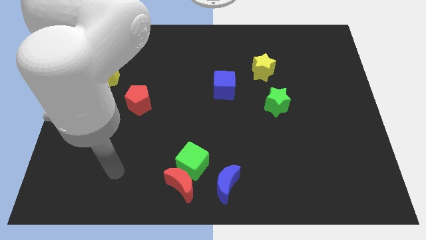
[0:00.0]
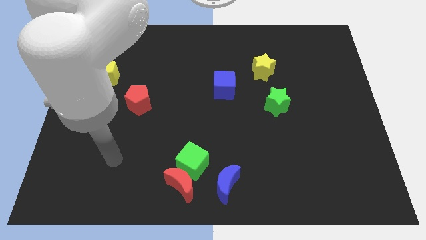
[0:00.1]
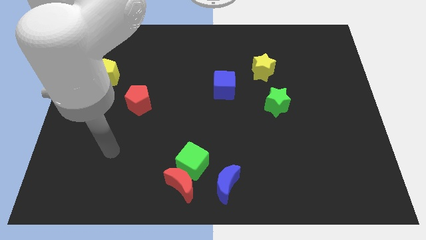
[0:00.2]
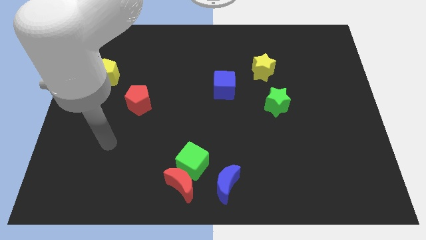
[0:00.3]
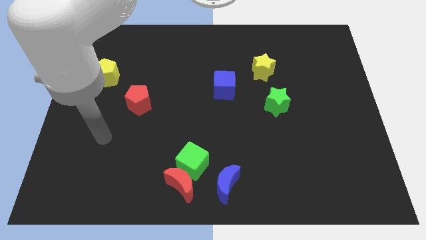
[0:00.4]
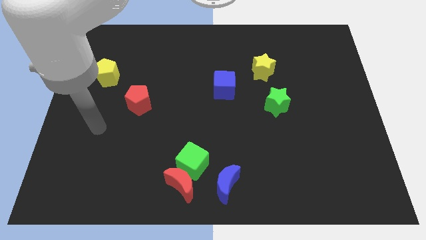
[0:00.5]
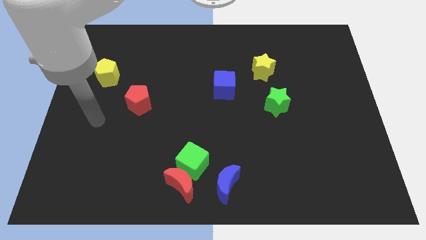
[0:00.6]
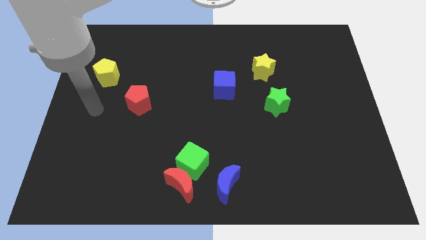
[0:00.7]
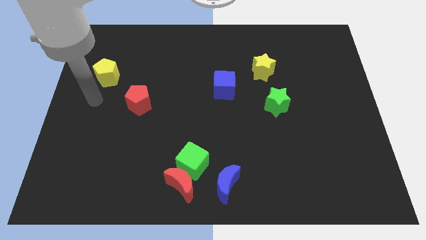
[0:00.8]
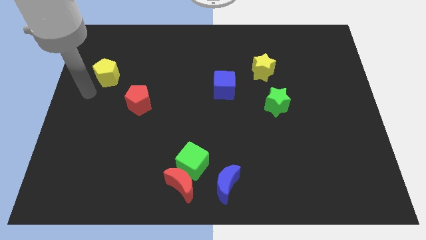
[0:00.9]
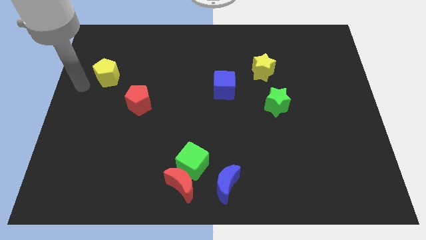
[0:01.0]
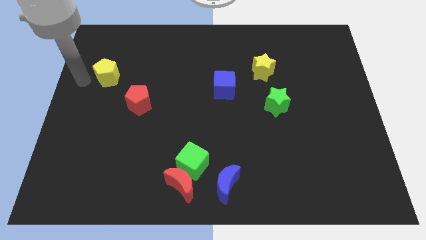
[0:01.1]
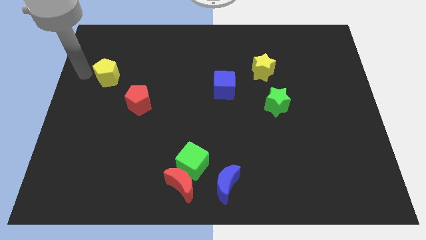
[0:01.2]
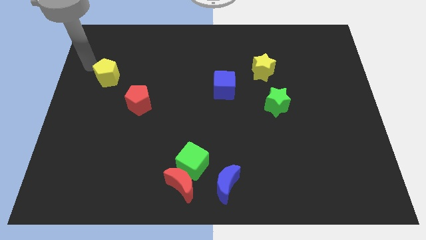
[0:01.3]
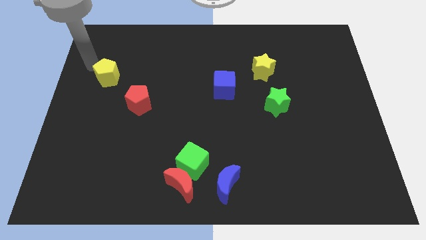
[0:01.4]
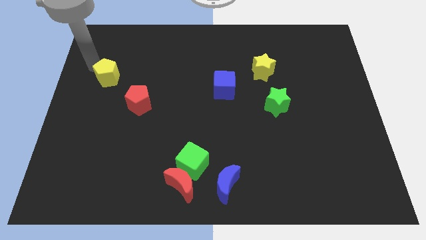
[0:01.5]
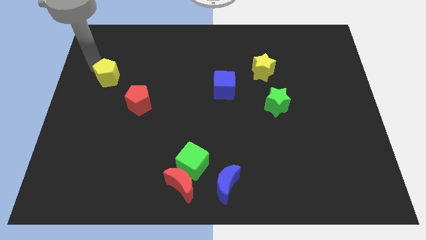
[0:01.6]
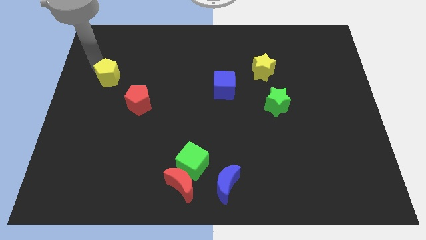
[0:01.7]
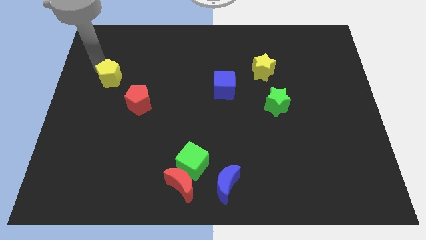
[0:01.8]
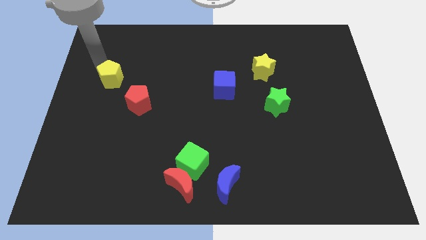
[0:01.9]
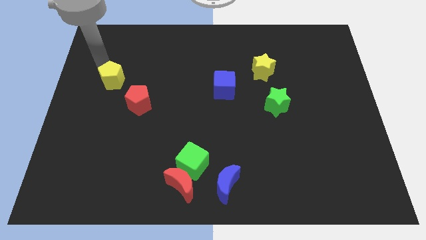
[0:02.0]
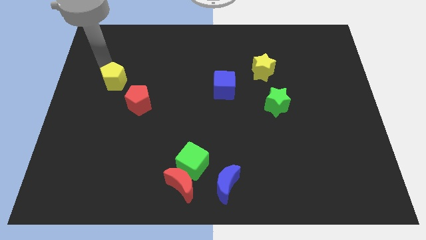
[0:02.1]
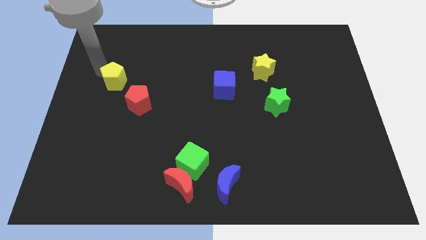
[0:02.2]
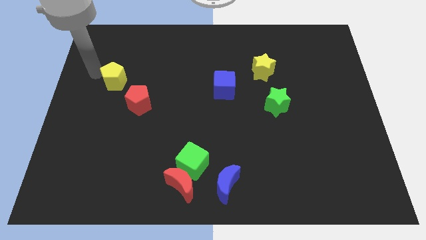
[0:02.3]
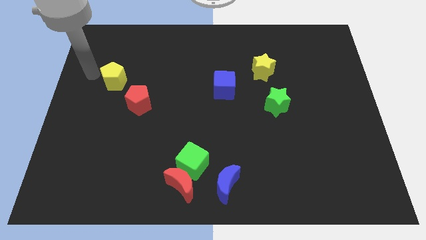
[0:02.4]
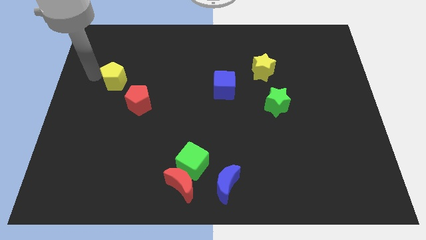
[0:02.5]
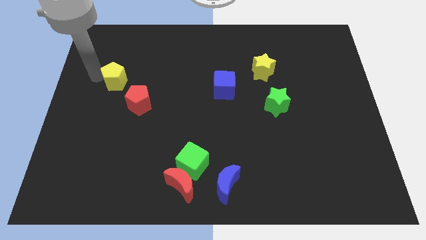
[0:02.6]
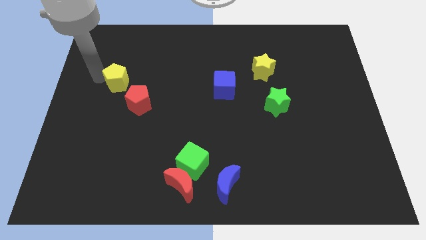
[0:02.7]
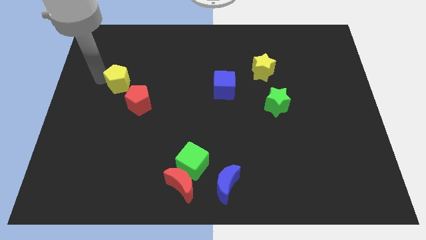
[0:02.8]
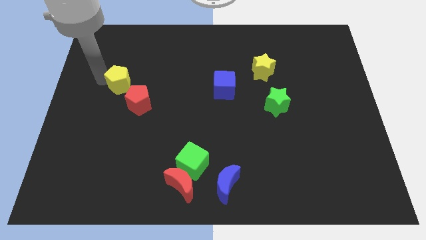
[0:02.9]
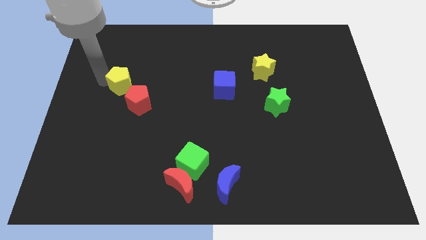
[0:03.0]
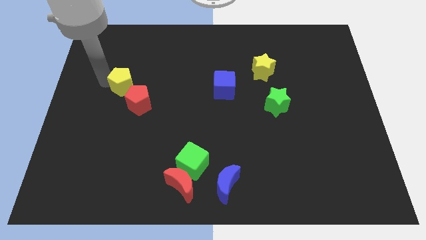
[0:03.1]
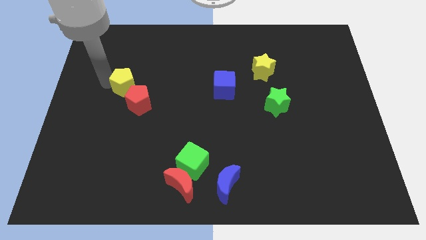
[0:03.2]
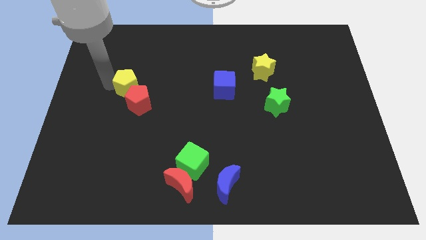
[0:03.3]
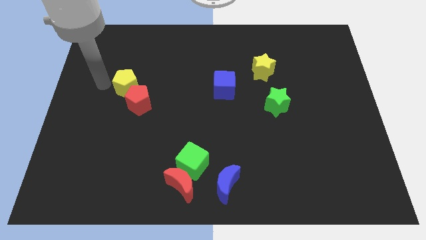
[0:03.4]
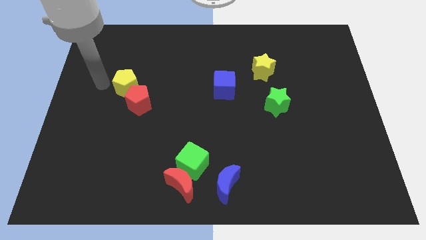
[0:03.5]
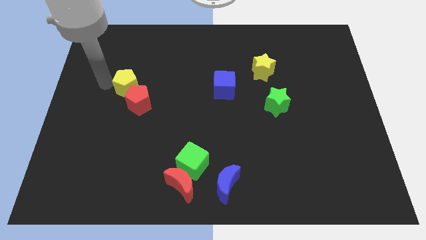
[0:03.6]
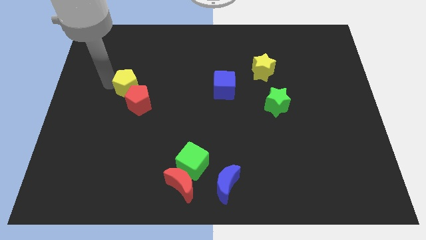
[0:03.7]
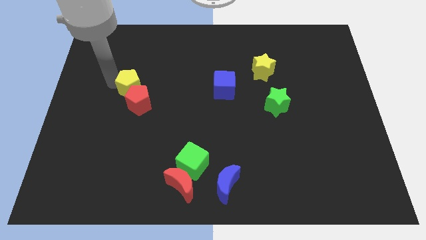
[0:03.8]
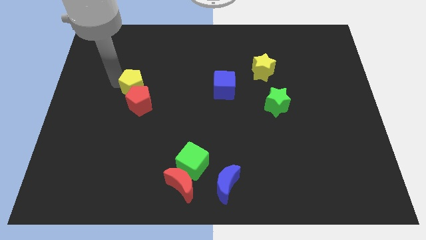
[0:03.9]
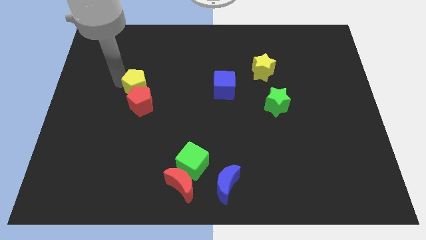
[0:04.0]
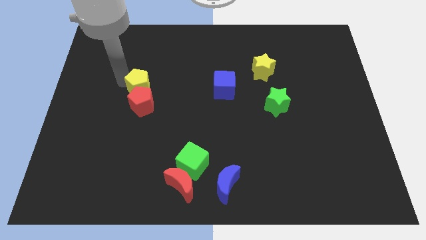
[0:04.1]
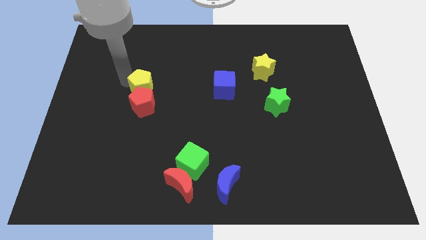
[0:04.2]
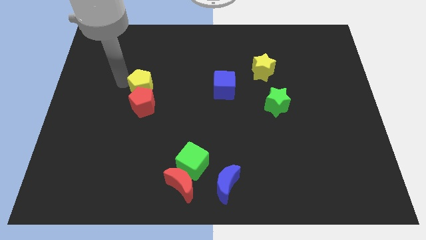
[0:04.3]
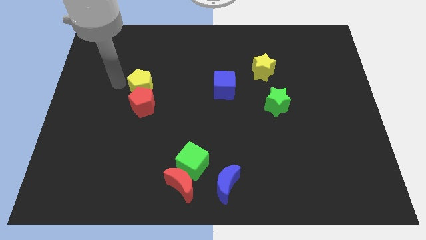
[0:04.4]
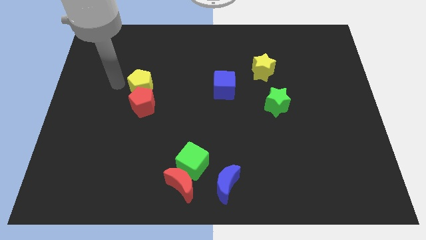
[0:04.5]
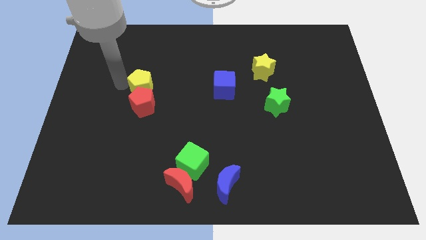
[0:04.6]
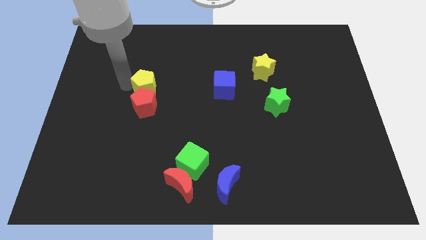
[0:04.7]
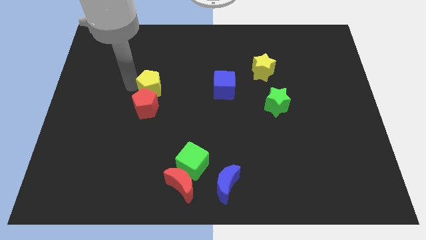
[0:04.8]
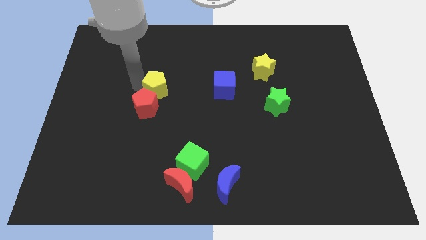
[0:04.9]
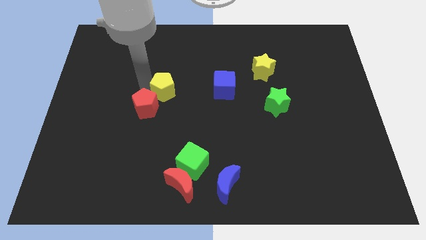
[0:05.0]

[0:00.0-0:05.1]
move the yellow pentagon to the middle of the board
